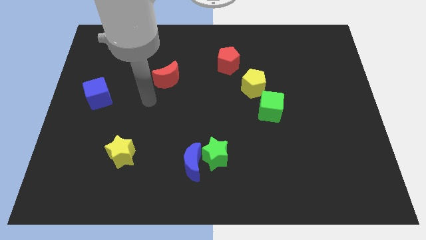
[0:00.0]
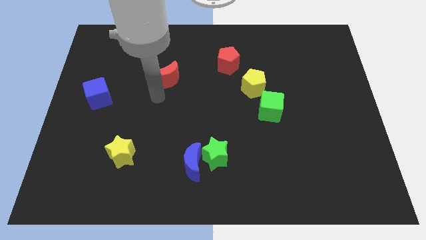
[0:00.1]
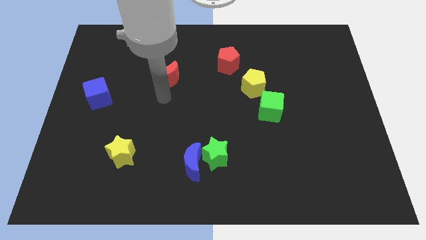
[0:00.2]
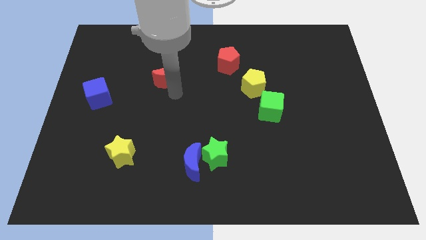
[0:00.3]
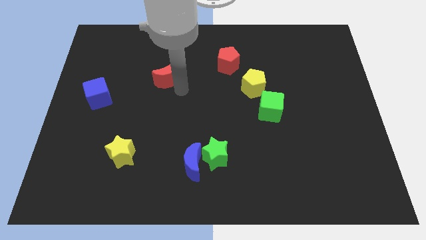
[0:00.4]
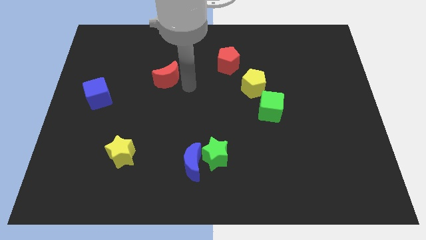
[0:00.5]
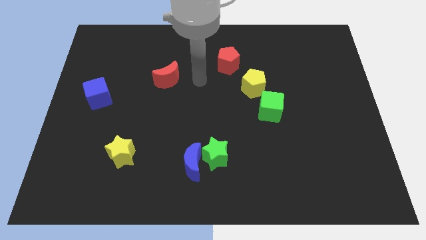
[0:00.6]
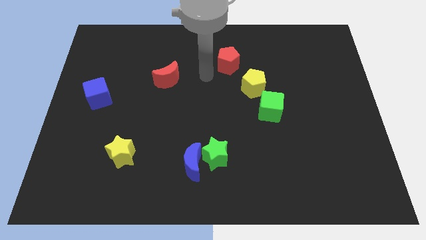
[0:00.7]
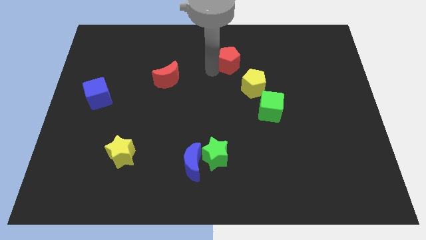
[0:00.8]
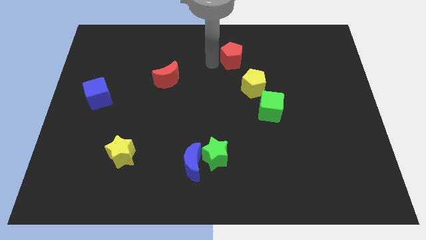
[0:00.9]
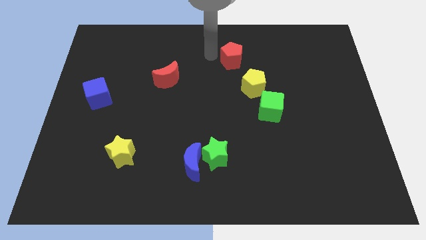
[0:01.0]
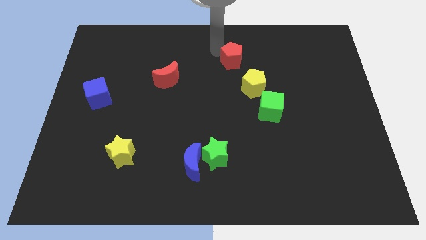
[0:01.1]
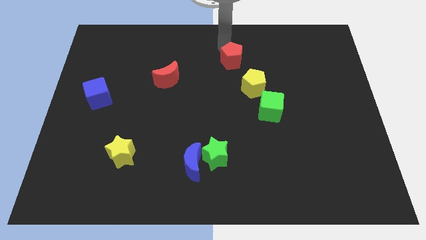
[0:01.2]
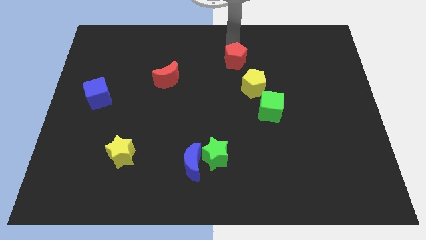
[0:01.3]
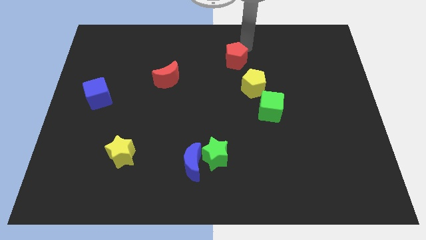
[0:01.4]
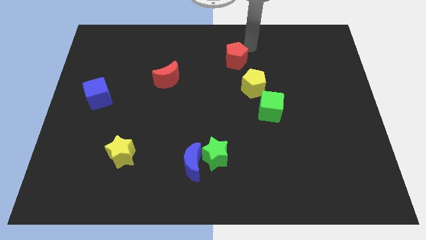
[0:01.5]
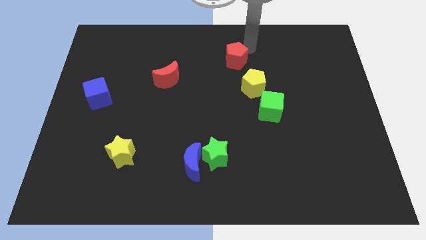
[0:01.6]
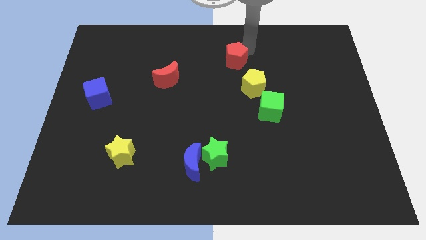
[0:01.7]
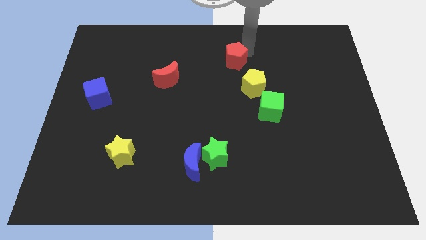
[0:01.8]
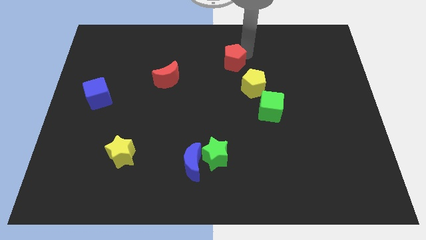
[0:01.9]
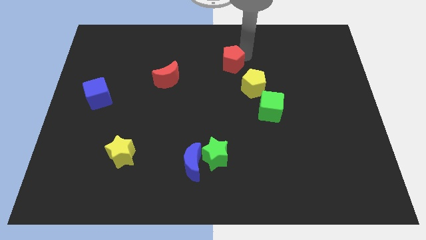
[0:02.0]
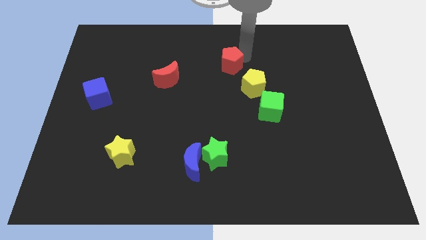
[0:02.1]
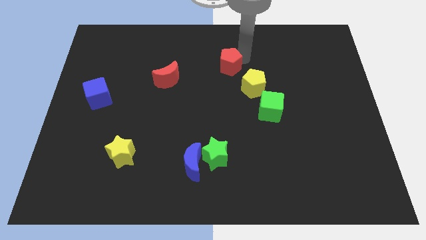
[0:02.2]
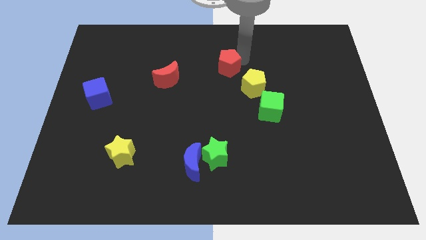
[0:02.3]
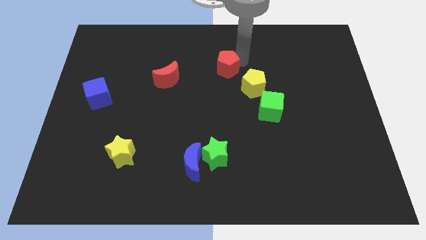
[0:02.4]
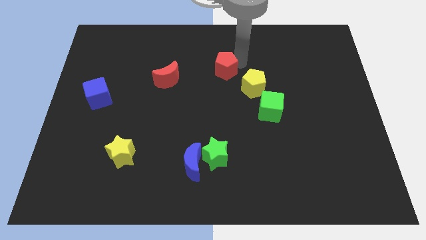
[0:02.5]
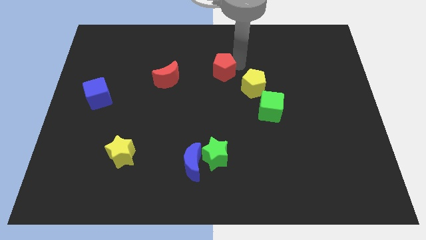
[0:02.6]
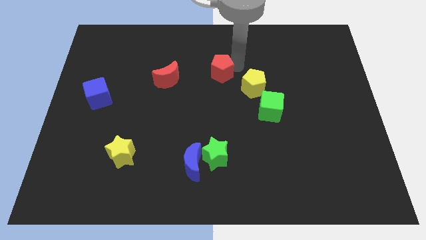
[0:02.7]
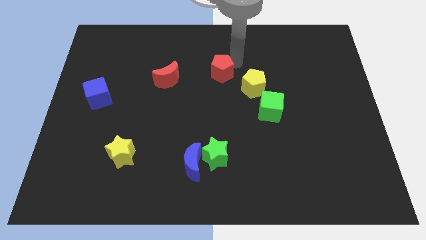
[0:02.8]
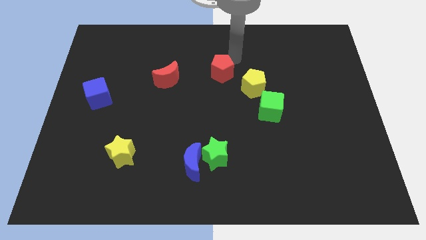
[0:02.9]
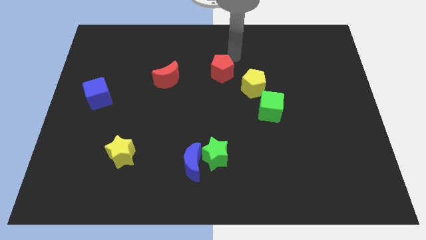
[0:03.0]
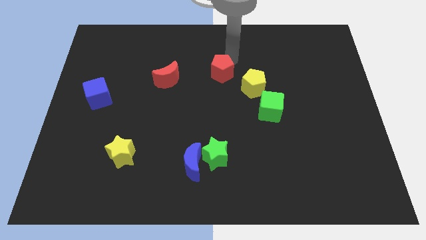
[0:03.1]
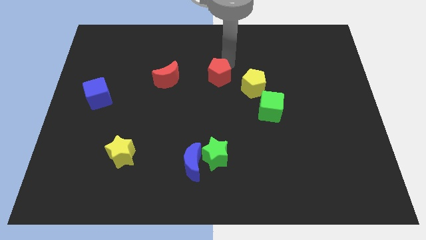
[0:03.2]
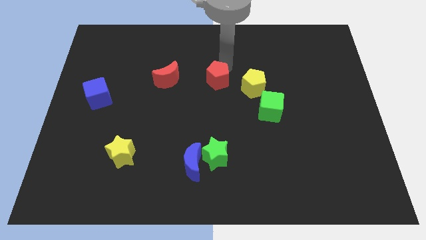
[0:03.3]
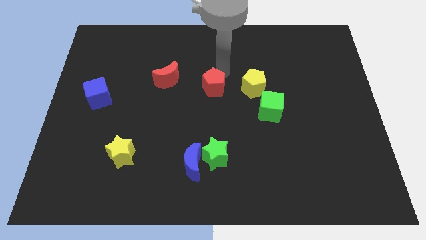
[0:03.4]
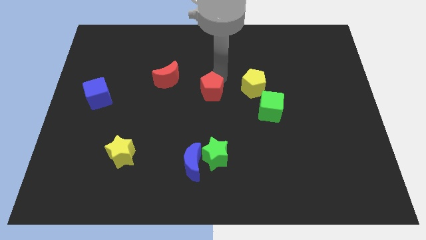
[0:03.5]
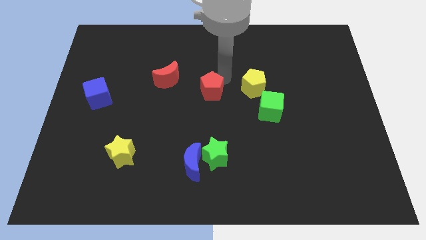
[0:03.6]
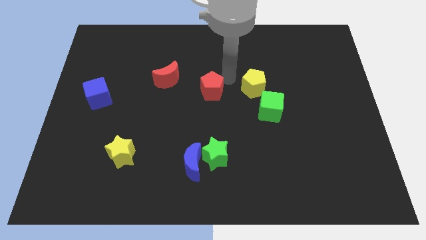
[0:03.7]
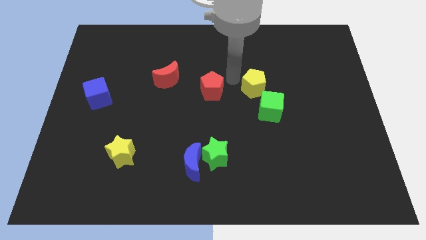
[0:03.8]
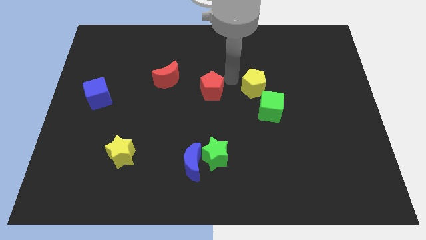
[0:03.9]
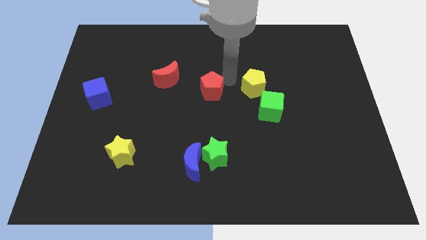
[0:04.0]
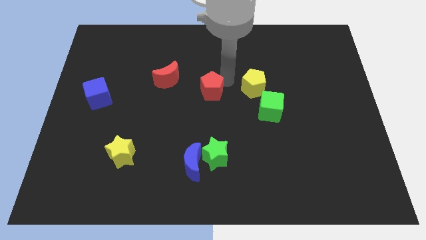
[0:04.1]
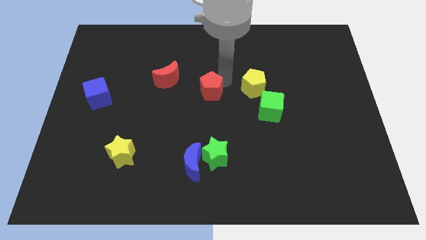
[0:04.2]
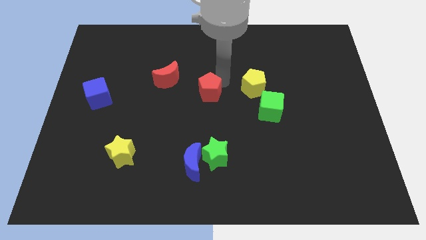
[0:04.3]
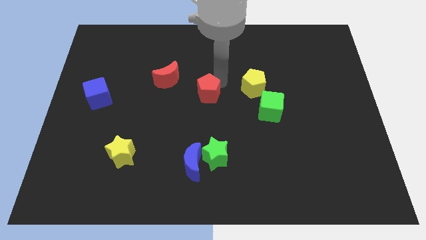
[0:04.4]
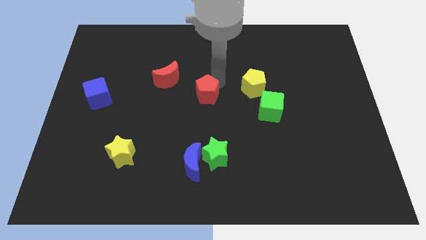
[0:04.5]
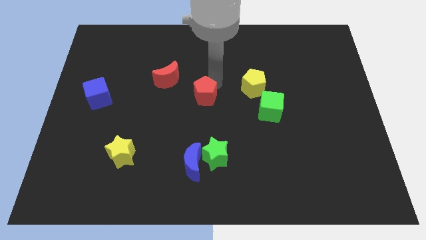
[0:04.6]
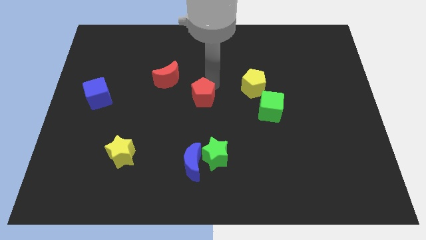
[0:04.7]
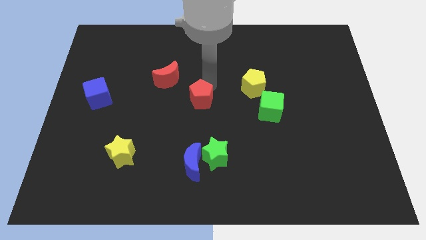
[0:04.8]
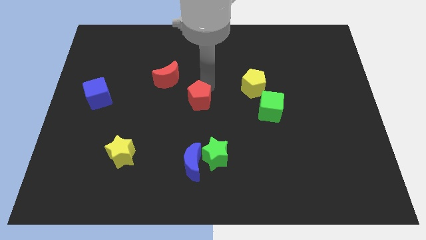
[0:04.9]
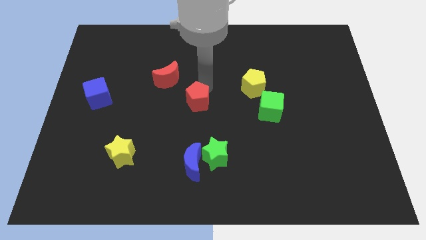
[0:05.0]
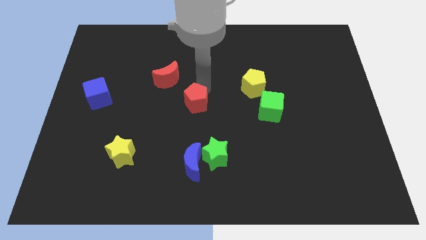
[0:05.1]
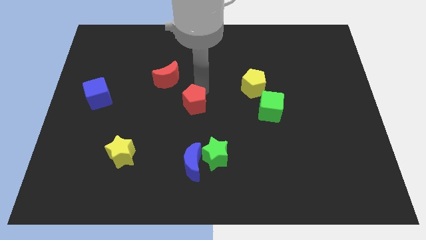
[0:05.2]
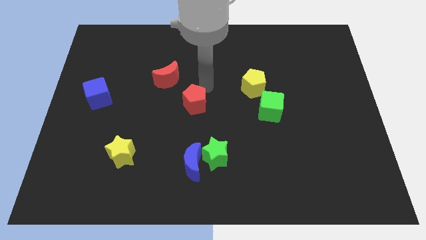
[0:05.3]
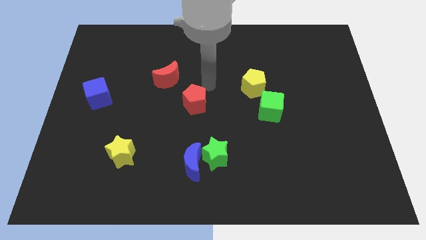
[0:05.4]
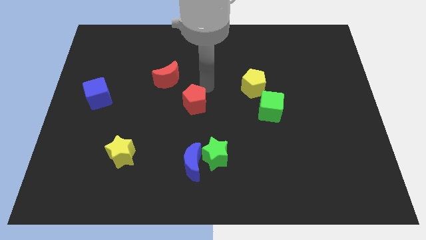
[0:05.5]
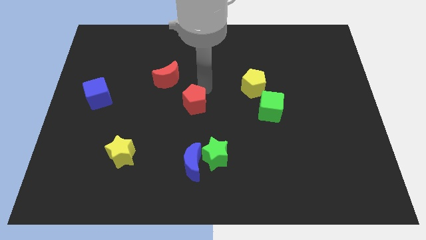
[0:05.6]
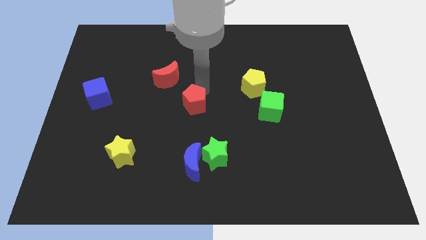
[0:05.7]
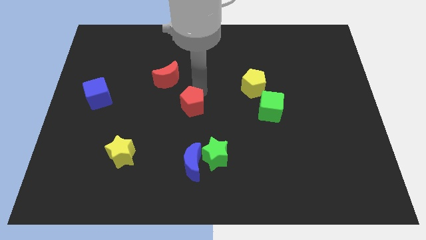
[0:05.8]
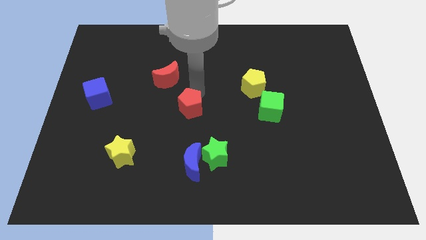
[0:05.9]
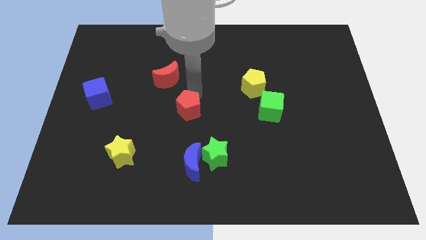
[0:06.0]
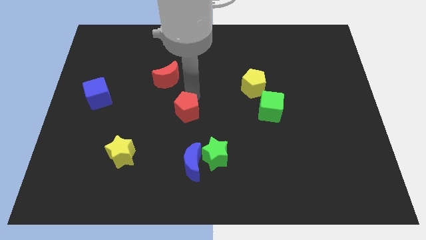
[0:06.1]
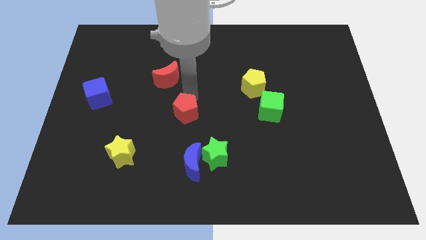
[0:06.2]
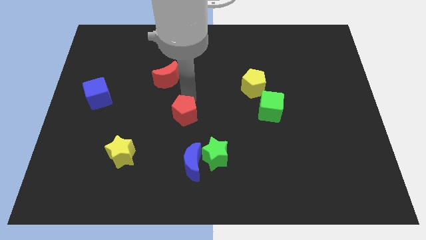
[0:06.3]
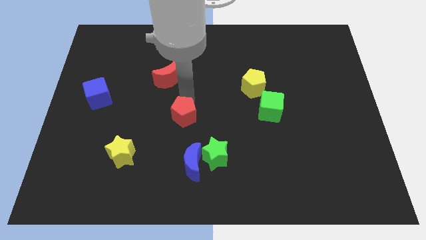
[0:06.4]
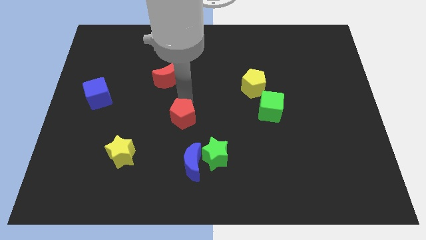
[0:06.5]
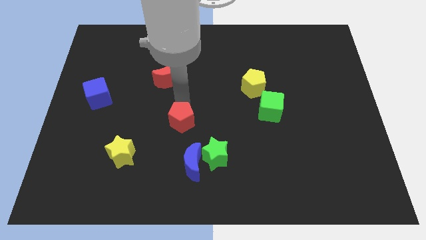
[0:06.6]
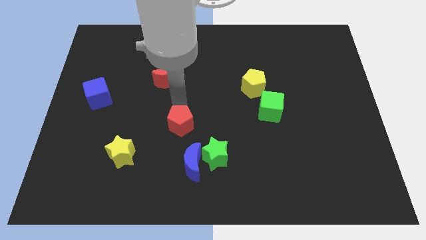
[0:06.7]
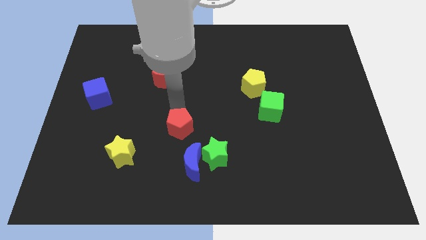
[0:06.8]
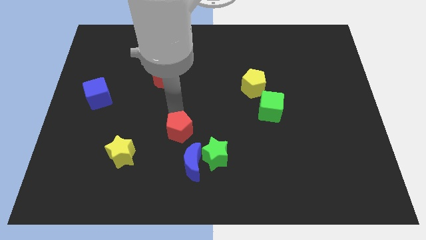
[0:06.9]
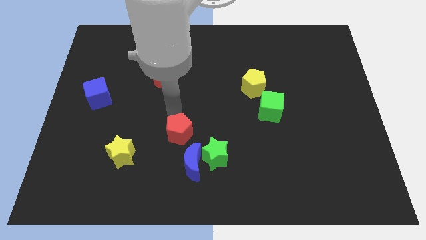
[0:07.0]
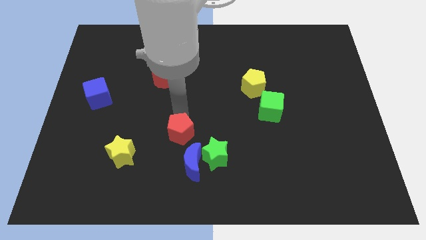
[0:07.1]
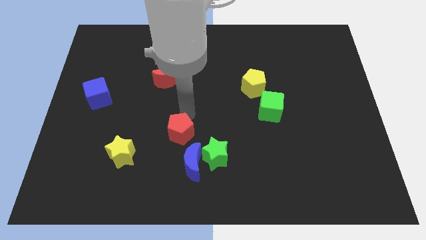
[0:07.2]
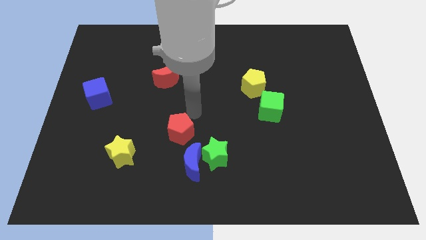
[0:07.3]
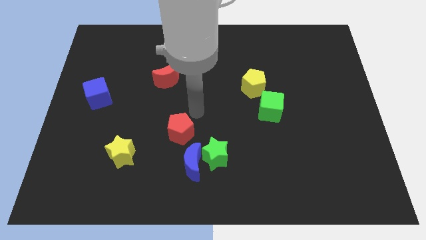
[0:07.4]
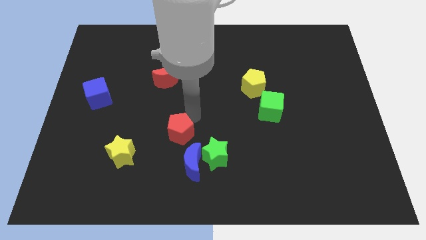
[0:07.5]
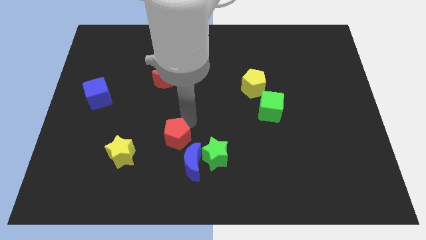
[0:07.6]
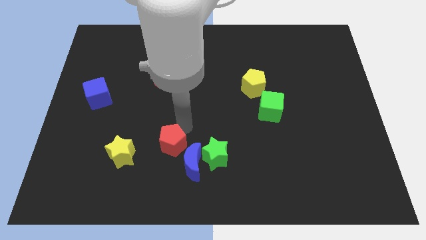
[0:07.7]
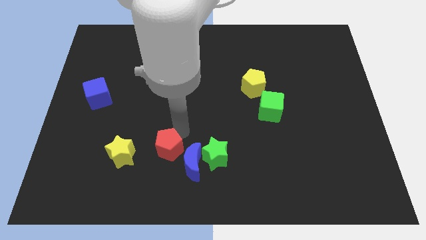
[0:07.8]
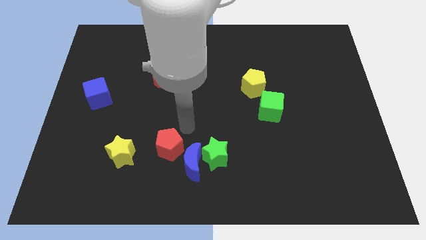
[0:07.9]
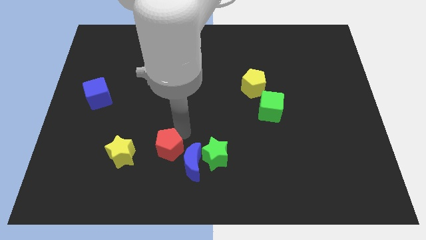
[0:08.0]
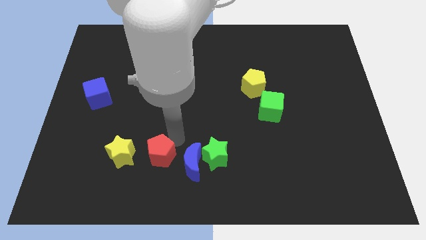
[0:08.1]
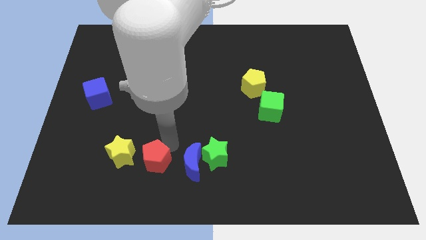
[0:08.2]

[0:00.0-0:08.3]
push the red pentagon to the bottom right of the yellow star
